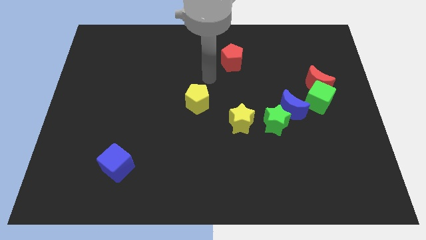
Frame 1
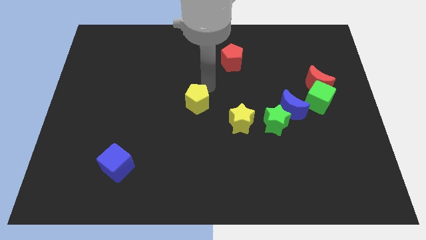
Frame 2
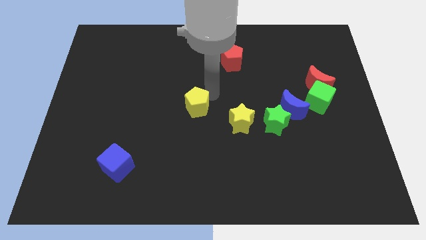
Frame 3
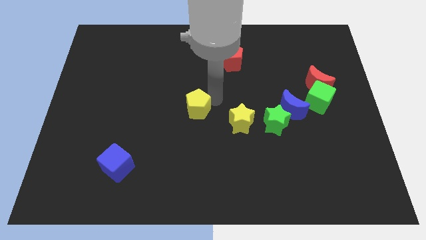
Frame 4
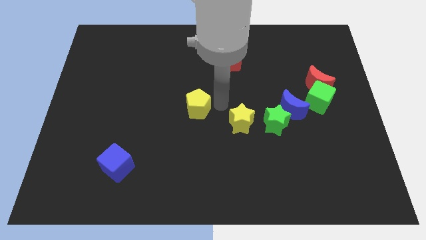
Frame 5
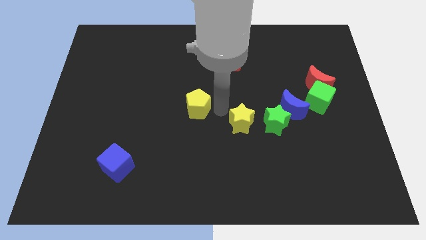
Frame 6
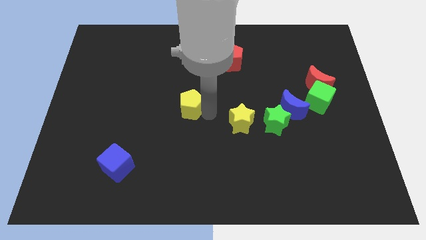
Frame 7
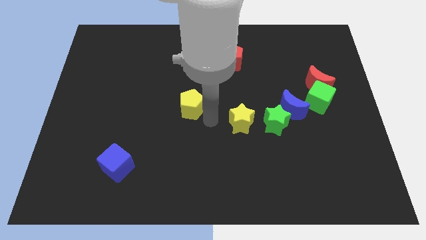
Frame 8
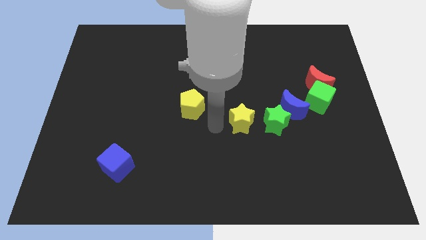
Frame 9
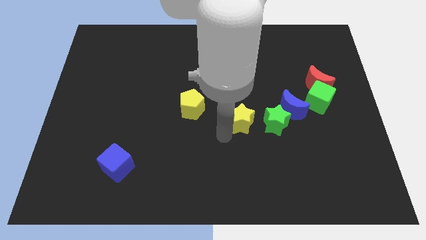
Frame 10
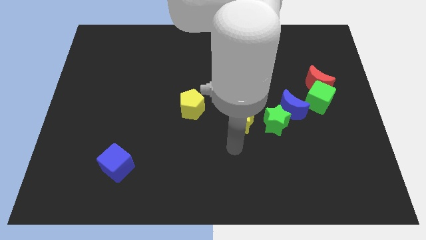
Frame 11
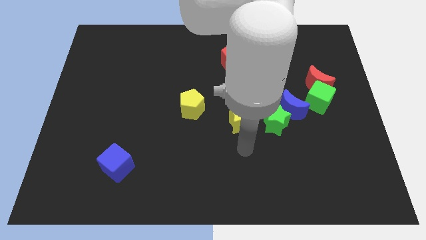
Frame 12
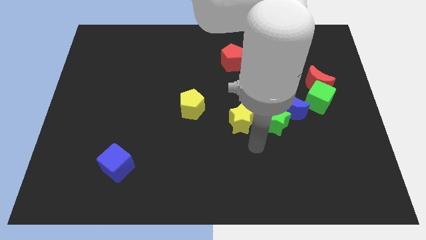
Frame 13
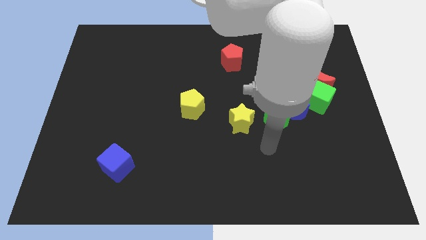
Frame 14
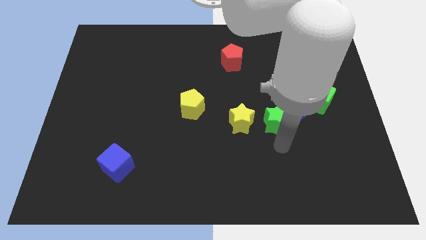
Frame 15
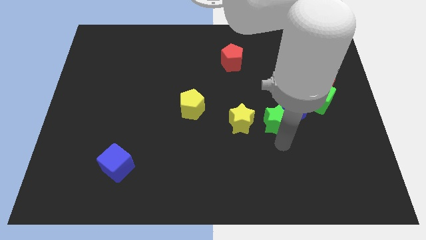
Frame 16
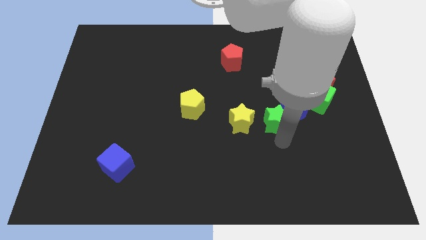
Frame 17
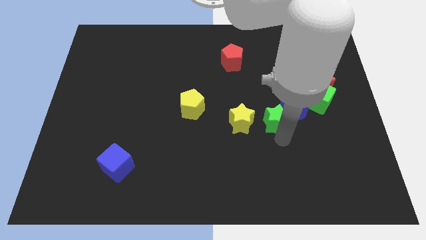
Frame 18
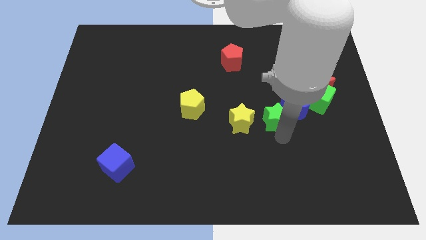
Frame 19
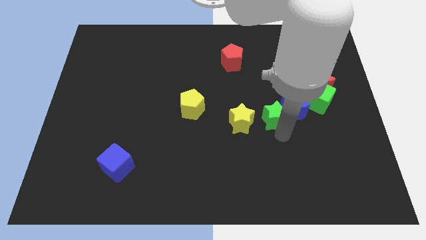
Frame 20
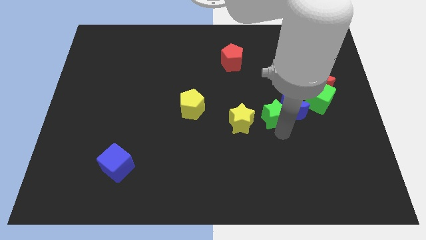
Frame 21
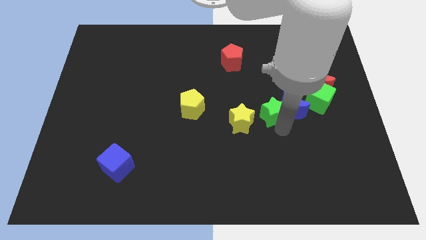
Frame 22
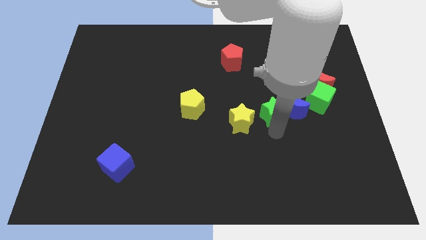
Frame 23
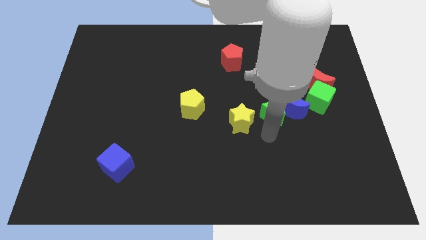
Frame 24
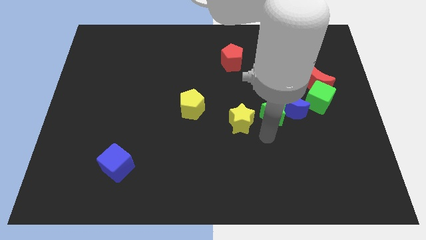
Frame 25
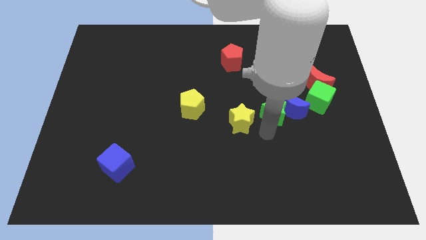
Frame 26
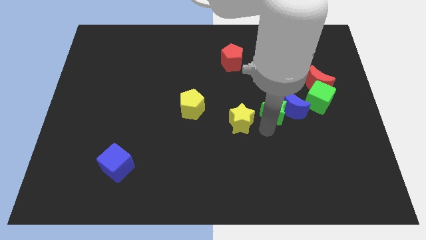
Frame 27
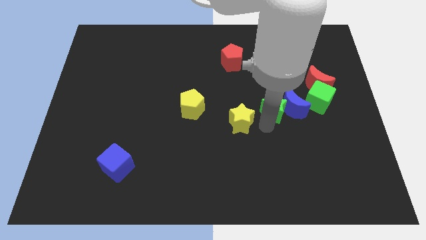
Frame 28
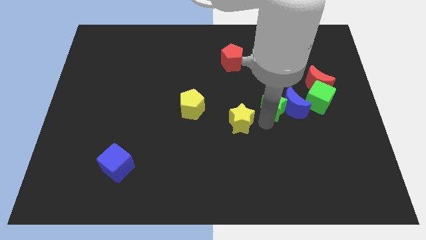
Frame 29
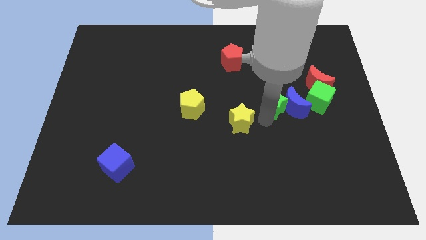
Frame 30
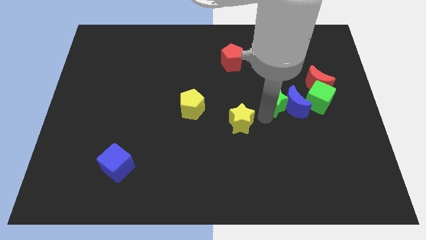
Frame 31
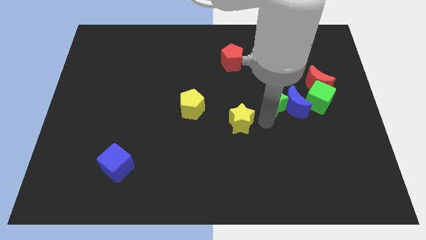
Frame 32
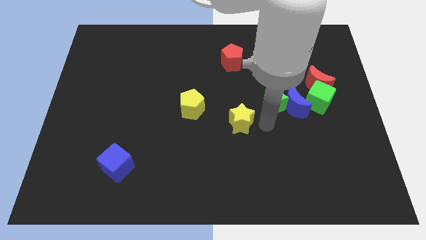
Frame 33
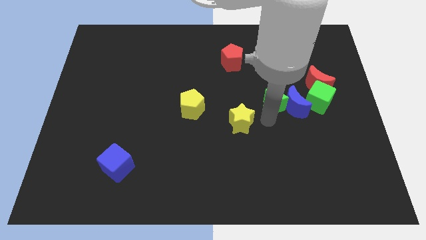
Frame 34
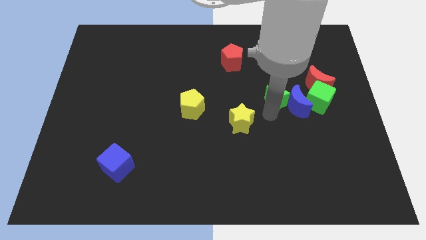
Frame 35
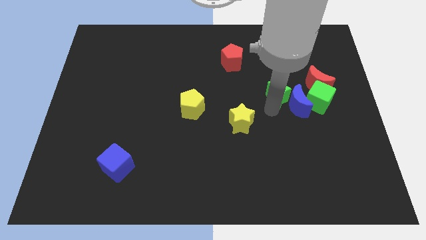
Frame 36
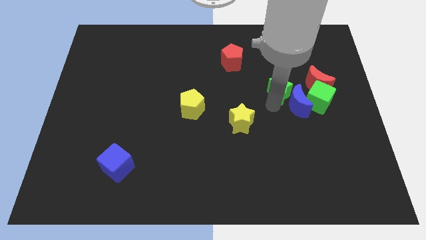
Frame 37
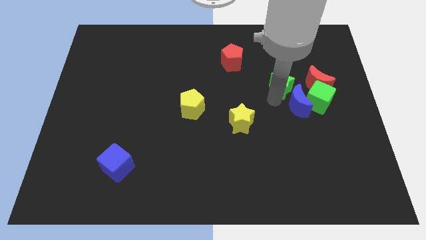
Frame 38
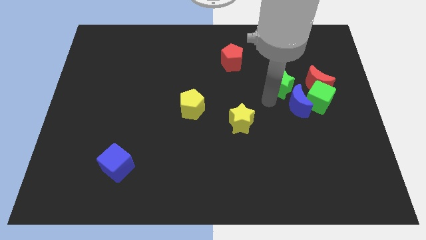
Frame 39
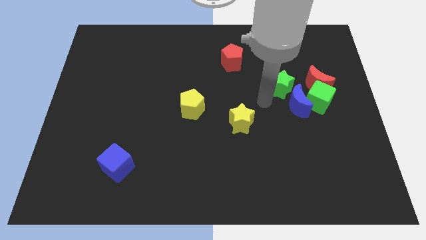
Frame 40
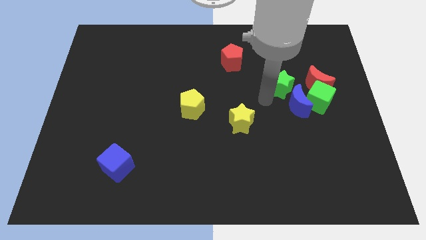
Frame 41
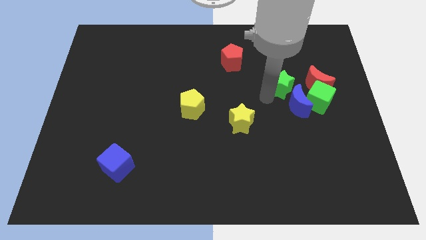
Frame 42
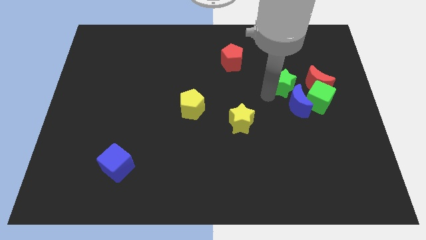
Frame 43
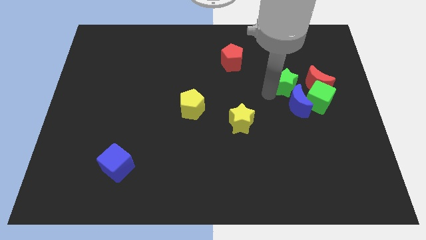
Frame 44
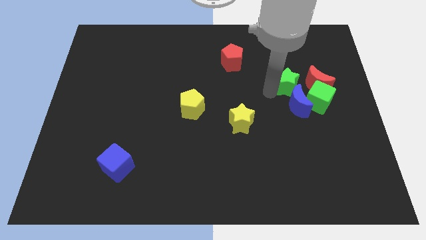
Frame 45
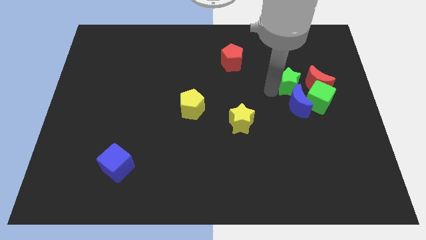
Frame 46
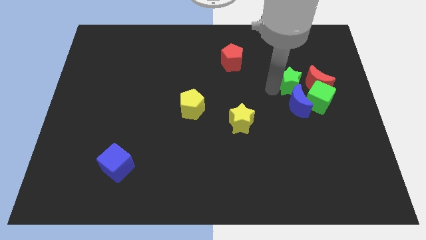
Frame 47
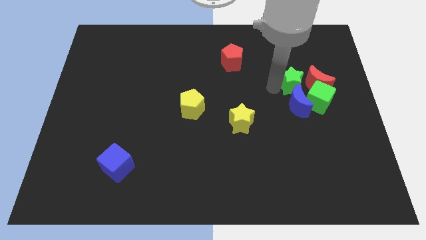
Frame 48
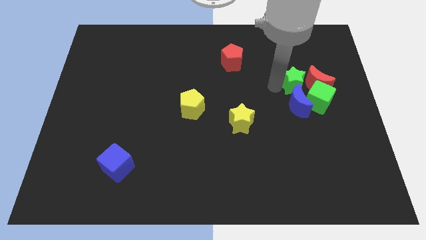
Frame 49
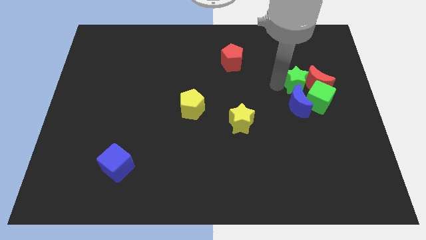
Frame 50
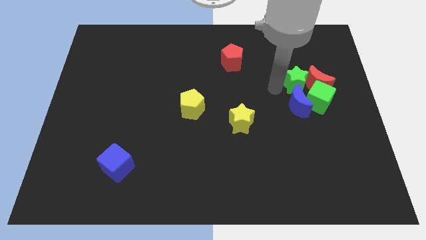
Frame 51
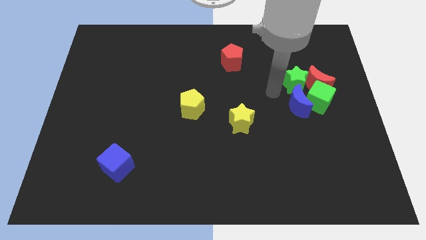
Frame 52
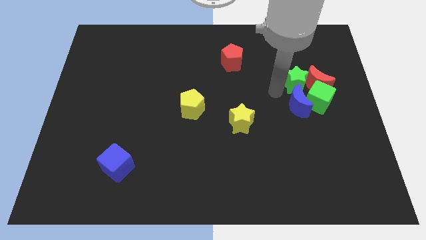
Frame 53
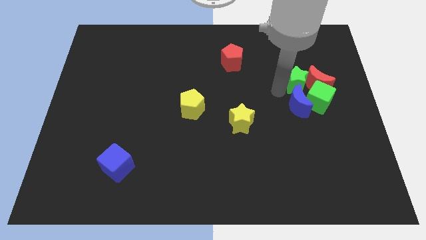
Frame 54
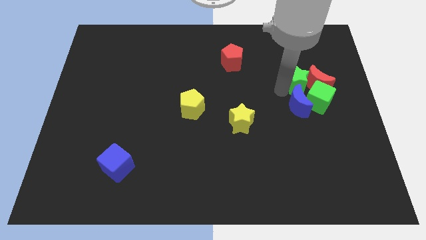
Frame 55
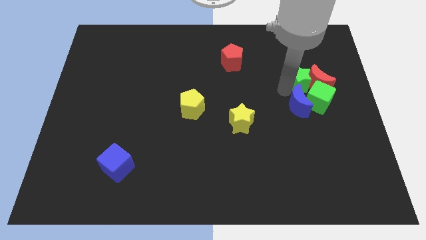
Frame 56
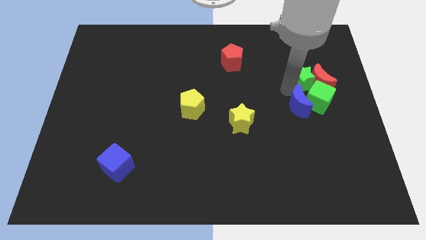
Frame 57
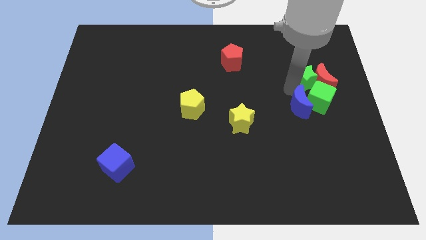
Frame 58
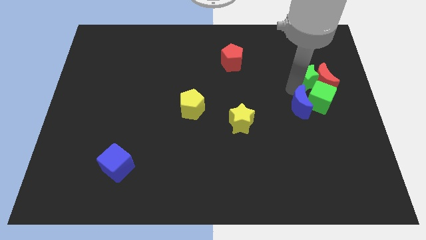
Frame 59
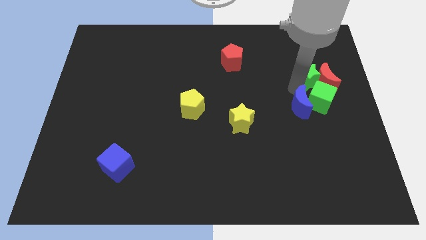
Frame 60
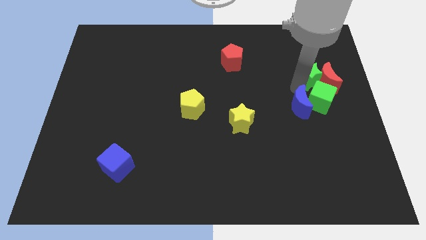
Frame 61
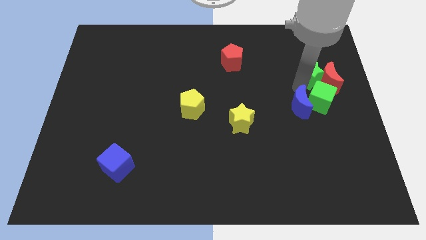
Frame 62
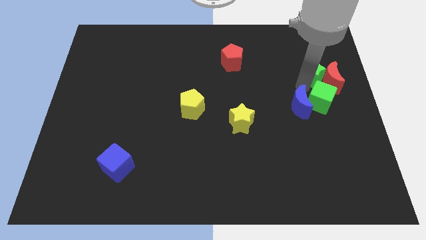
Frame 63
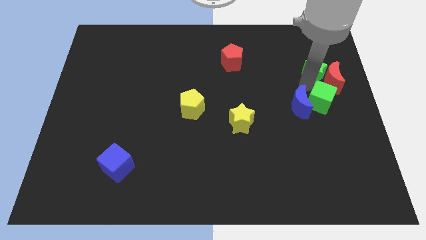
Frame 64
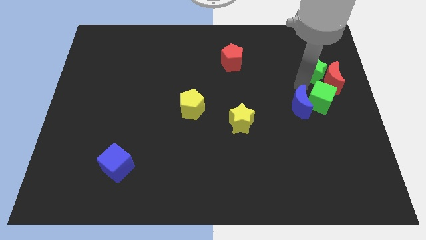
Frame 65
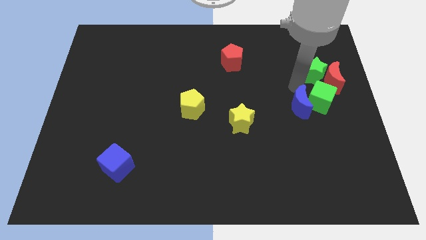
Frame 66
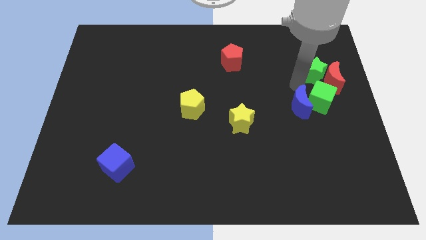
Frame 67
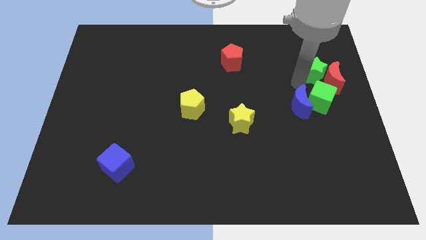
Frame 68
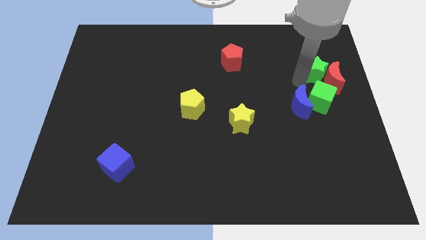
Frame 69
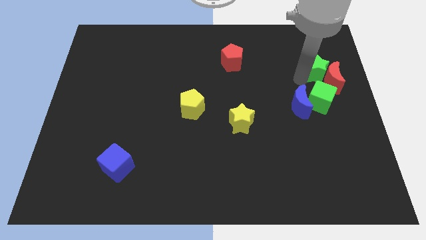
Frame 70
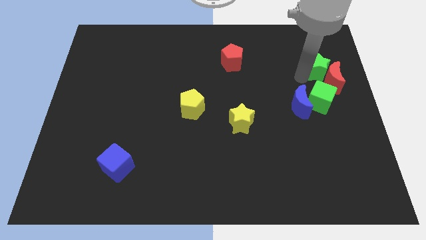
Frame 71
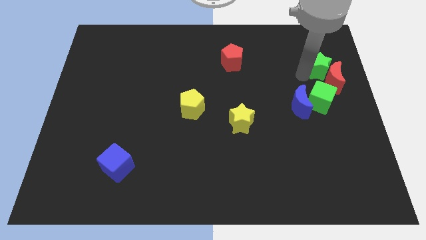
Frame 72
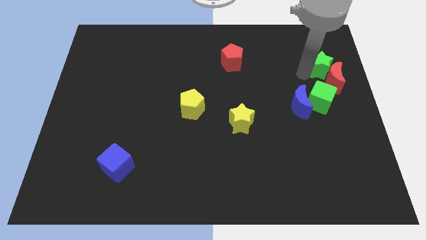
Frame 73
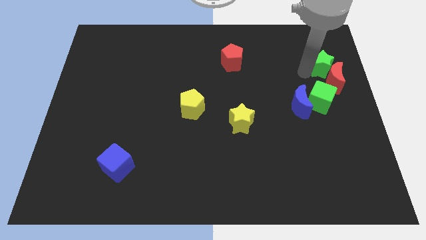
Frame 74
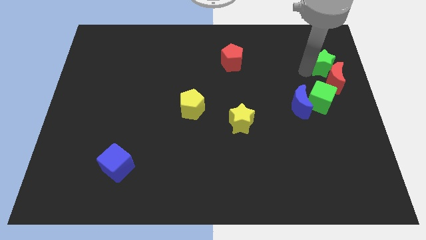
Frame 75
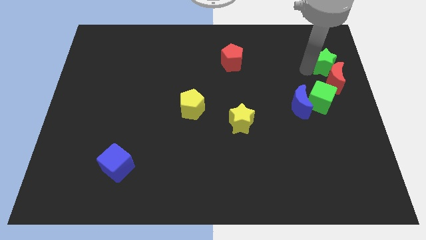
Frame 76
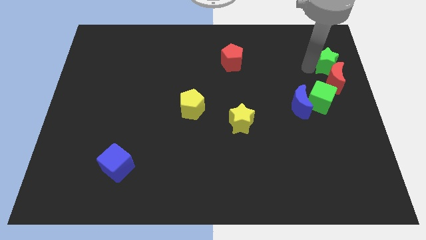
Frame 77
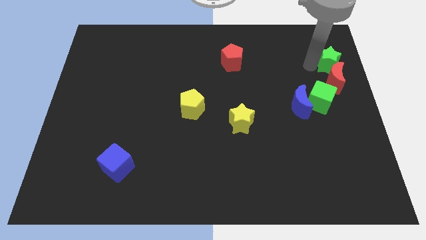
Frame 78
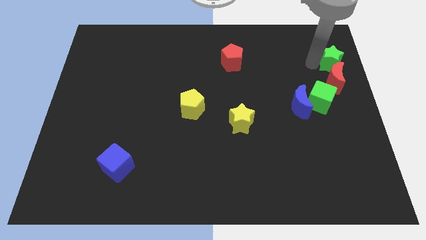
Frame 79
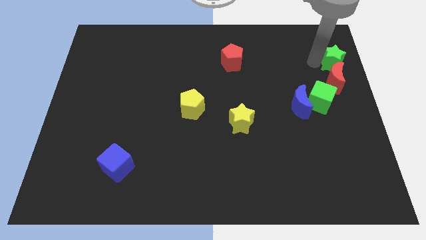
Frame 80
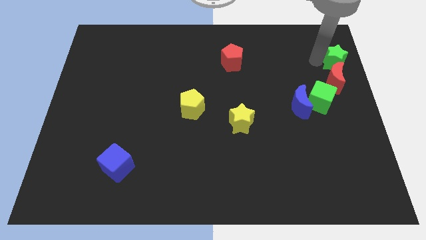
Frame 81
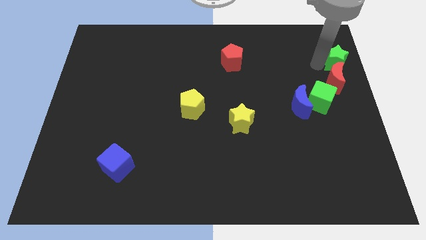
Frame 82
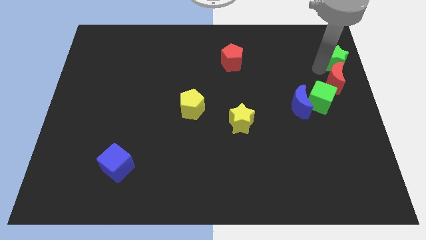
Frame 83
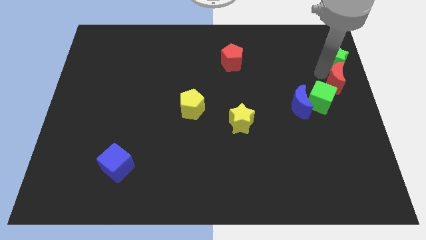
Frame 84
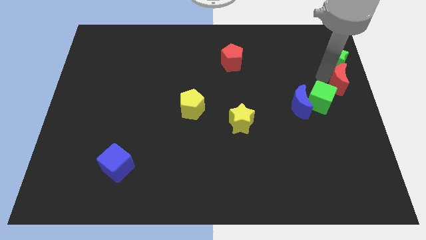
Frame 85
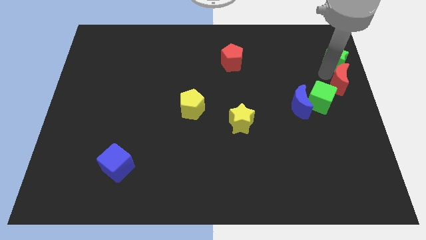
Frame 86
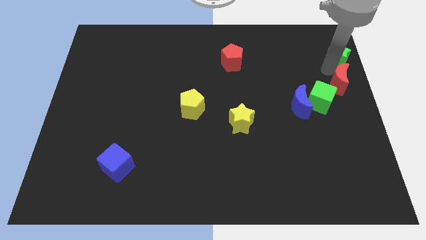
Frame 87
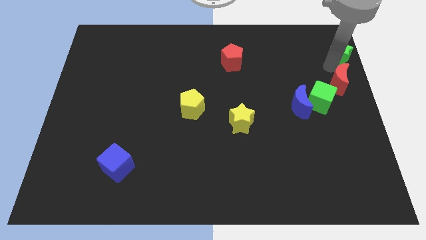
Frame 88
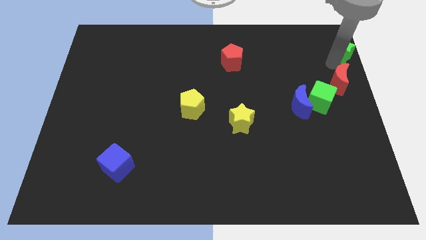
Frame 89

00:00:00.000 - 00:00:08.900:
put the green star to the top right
